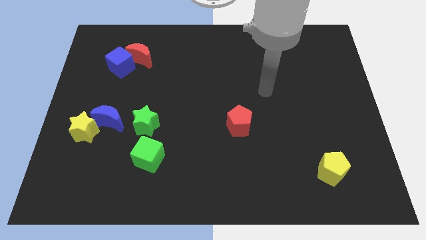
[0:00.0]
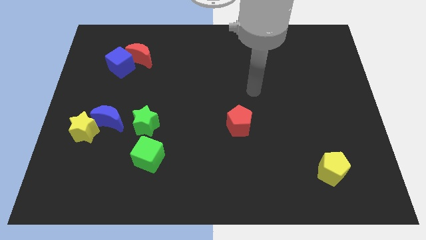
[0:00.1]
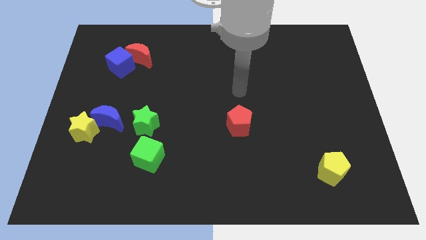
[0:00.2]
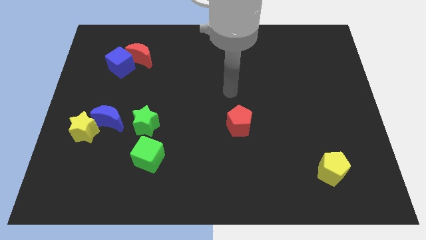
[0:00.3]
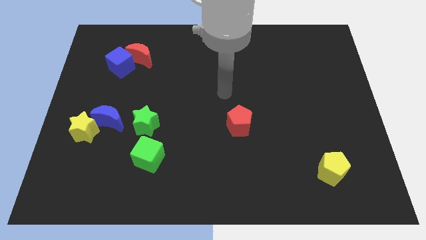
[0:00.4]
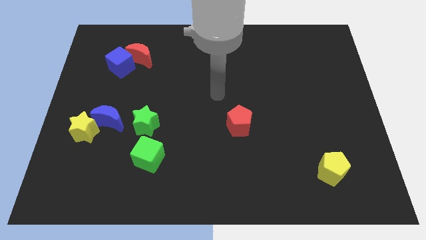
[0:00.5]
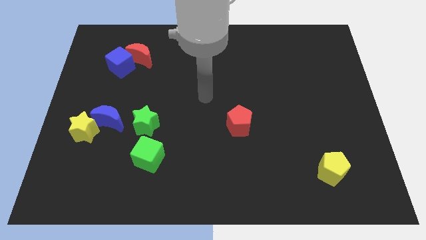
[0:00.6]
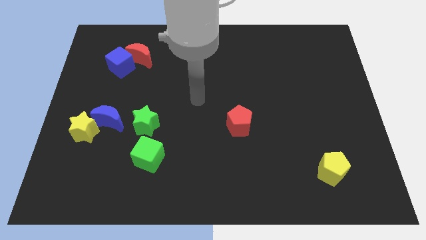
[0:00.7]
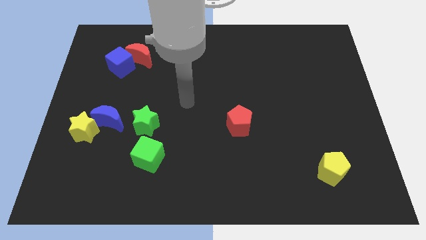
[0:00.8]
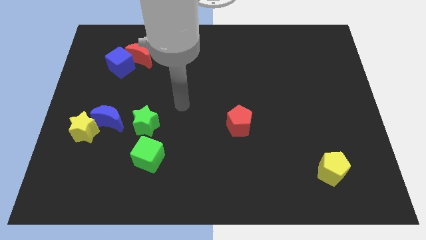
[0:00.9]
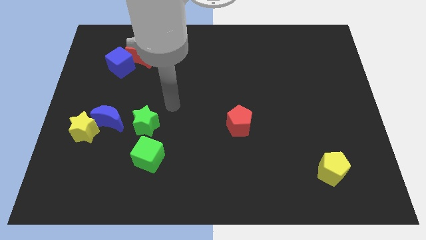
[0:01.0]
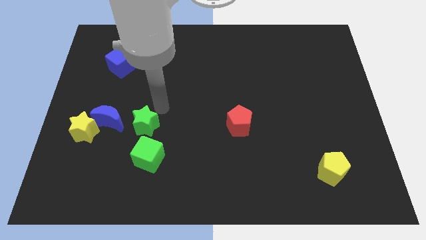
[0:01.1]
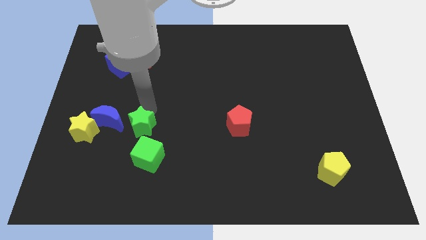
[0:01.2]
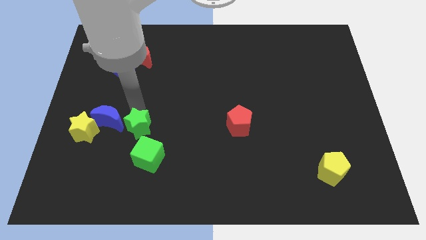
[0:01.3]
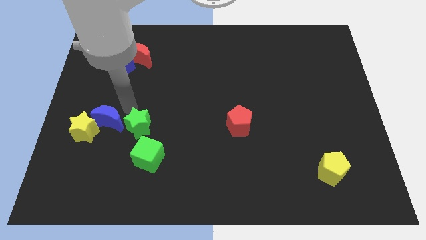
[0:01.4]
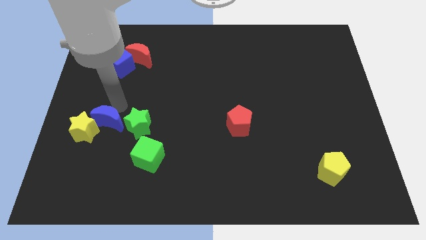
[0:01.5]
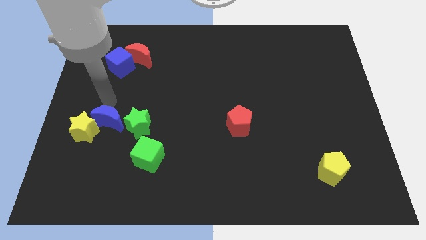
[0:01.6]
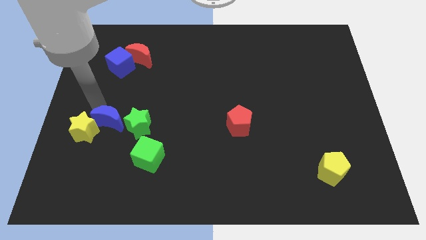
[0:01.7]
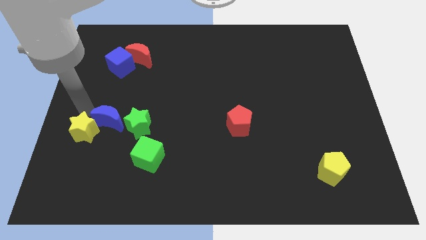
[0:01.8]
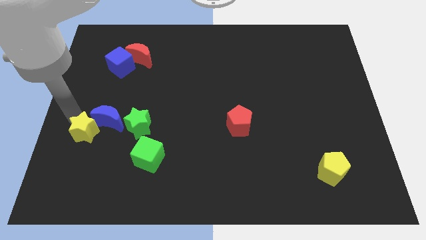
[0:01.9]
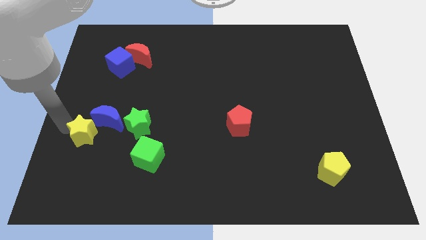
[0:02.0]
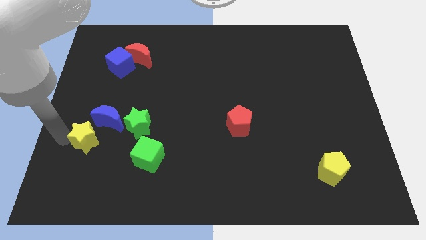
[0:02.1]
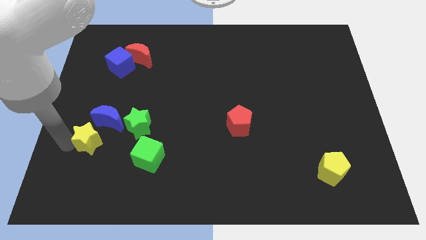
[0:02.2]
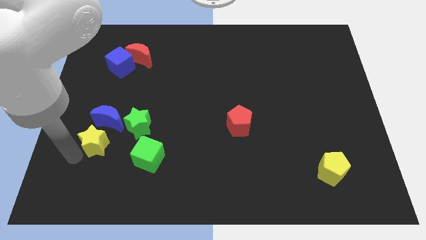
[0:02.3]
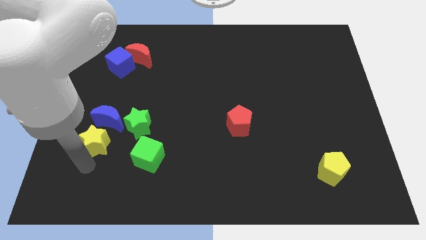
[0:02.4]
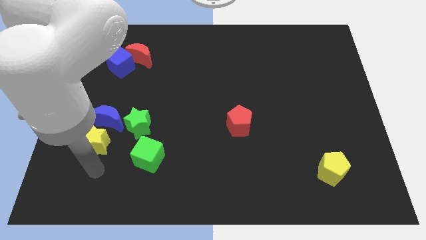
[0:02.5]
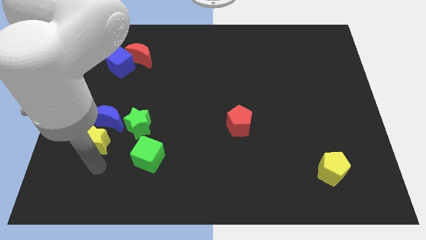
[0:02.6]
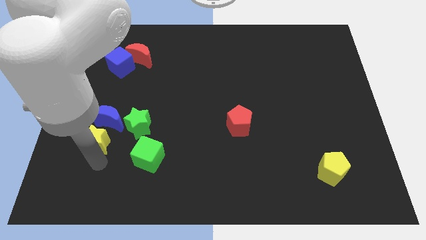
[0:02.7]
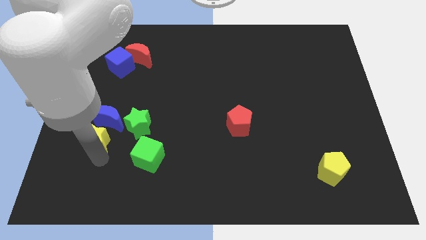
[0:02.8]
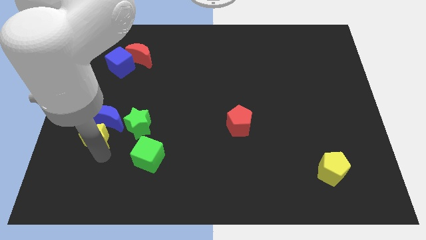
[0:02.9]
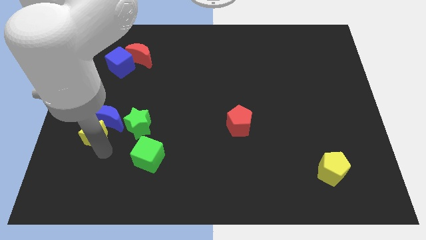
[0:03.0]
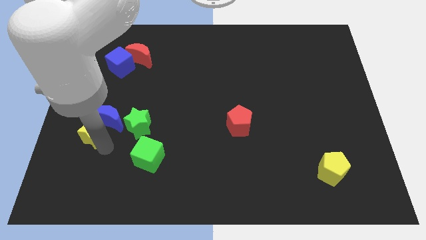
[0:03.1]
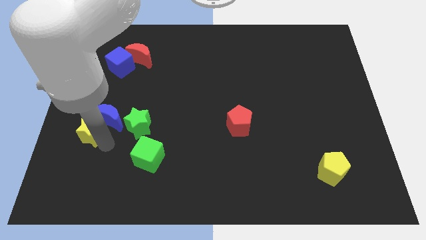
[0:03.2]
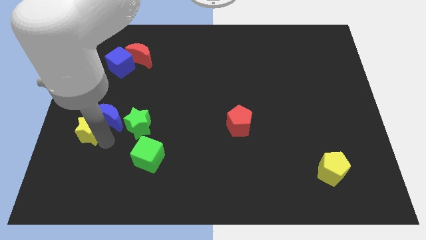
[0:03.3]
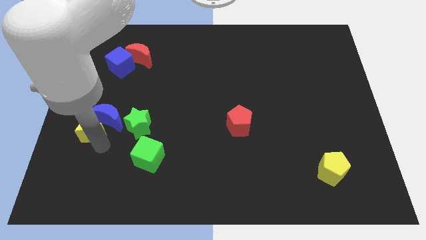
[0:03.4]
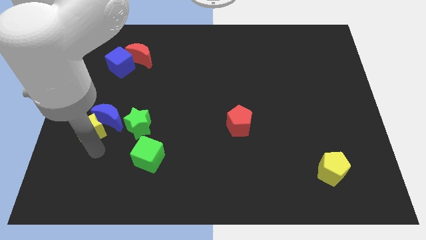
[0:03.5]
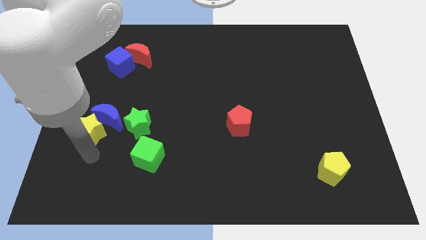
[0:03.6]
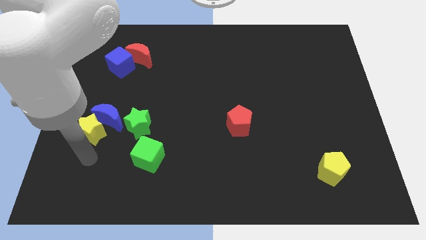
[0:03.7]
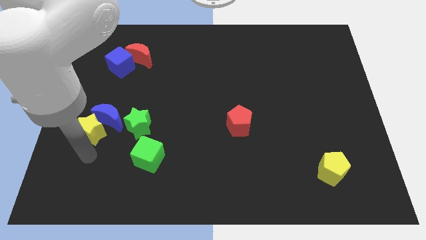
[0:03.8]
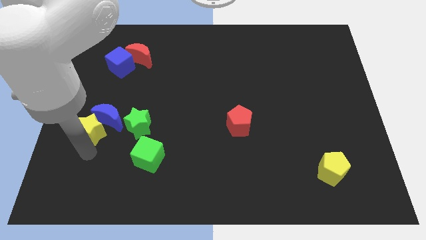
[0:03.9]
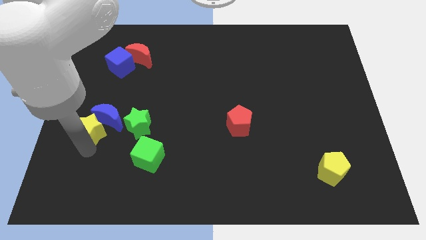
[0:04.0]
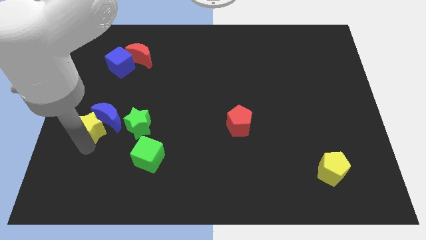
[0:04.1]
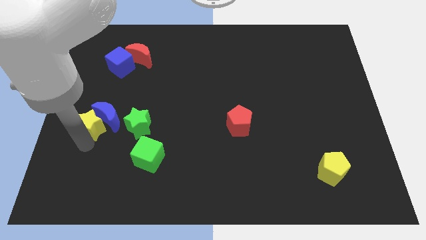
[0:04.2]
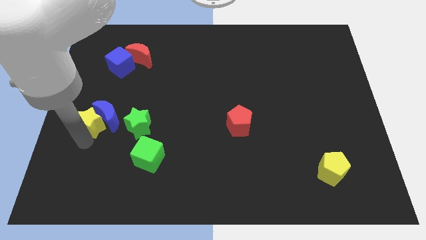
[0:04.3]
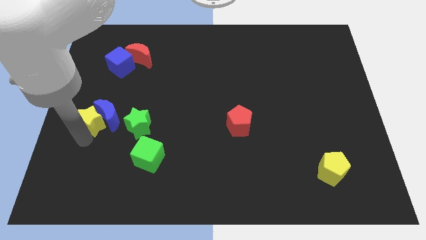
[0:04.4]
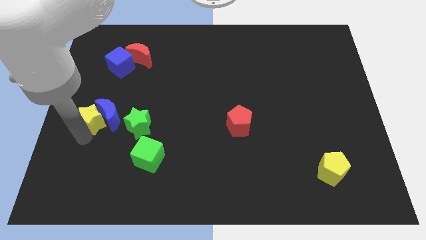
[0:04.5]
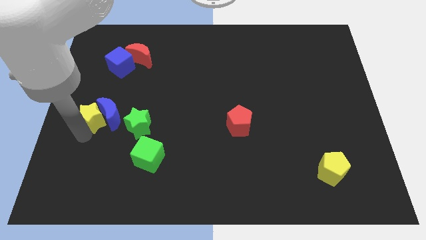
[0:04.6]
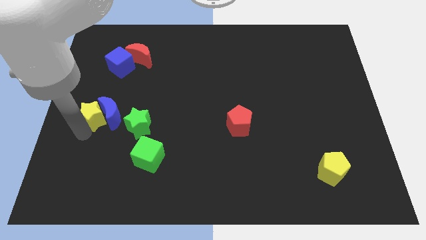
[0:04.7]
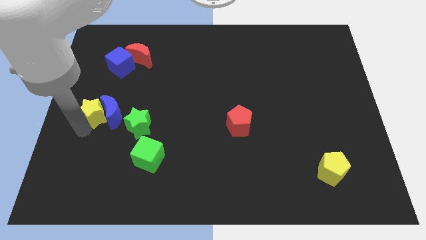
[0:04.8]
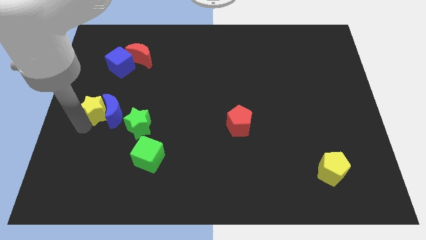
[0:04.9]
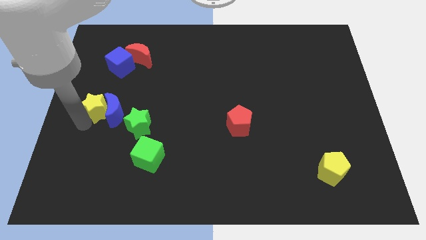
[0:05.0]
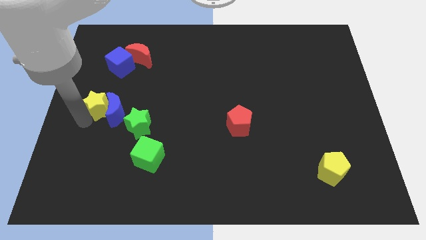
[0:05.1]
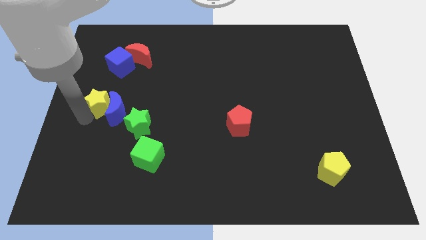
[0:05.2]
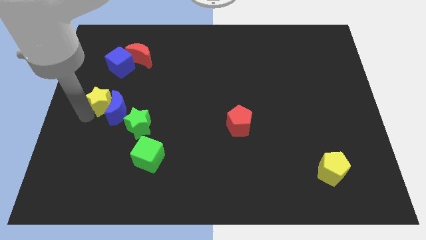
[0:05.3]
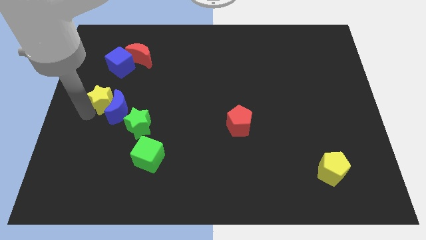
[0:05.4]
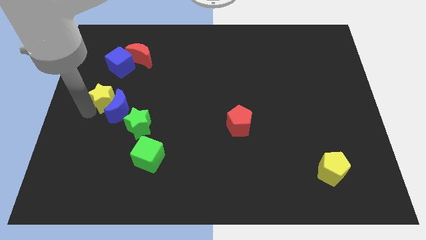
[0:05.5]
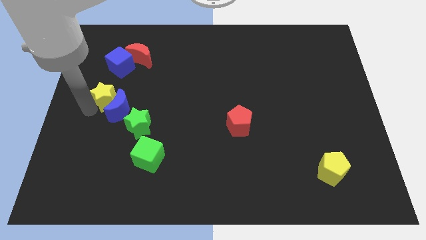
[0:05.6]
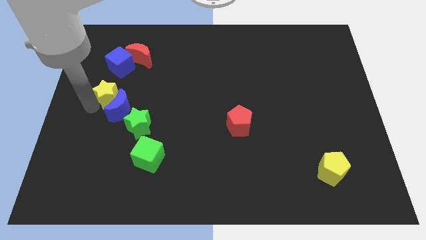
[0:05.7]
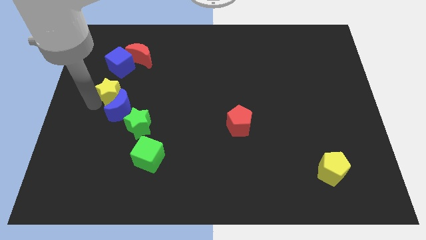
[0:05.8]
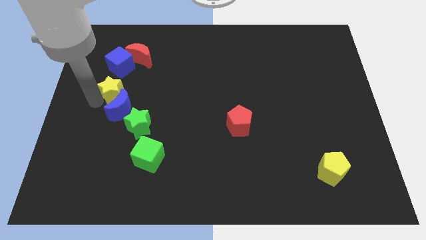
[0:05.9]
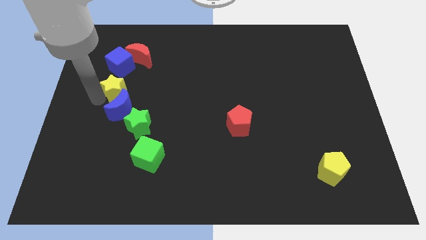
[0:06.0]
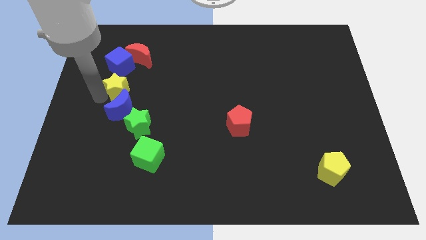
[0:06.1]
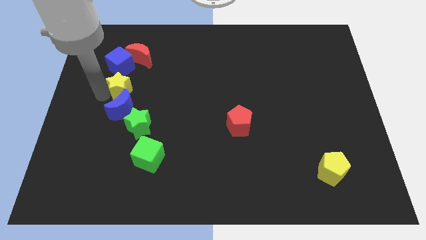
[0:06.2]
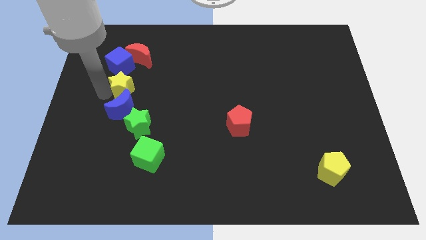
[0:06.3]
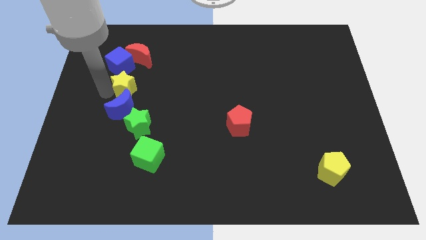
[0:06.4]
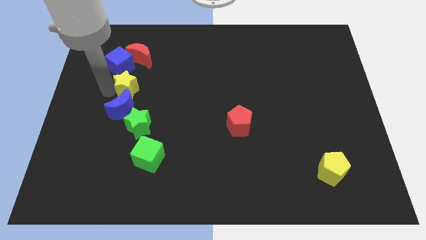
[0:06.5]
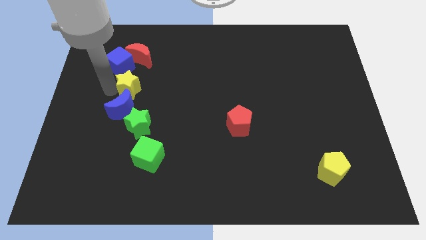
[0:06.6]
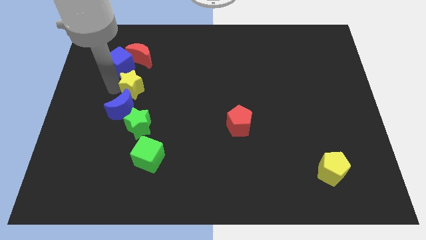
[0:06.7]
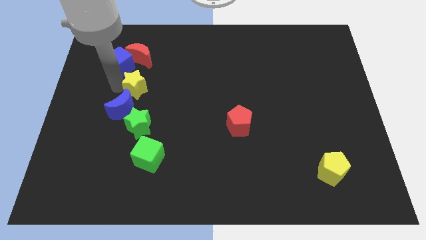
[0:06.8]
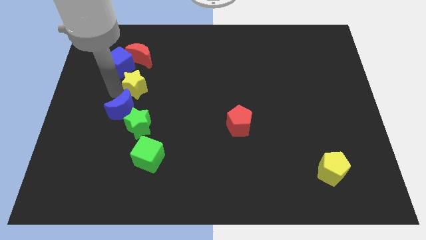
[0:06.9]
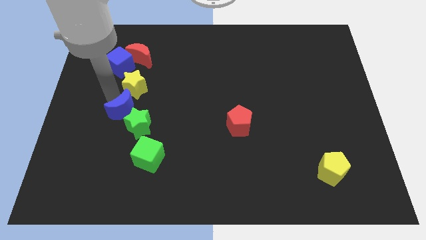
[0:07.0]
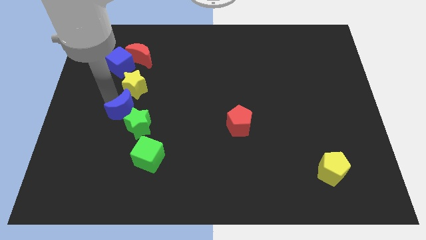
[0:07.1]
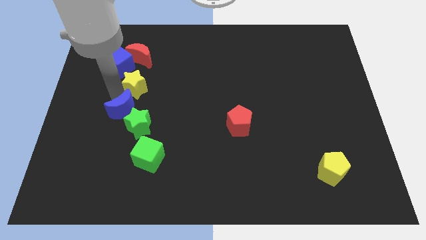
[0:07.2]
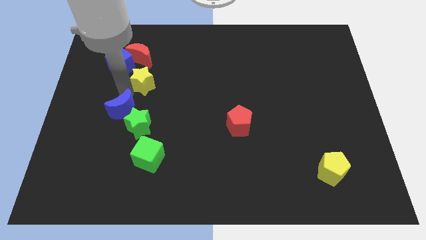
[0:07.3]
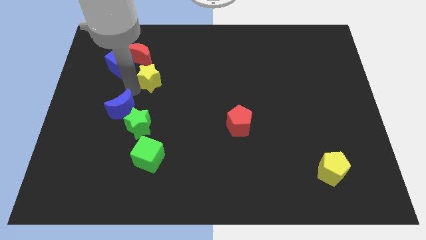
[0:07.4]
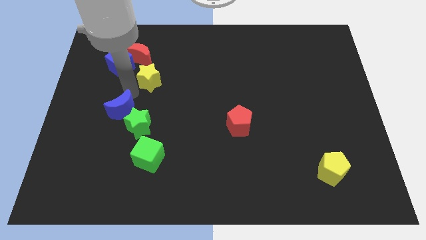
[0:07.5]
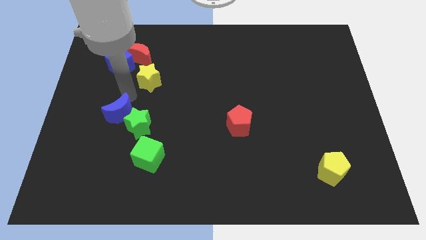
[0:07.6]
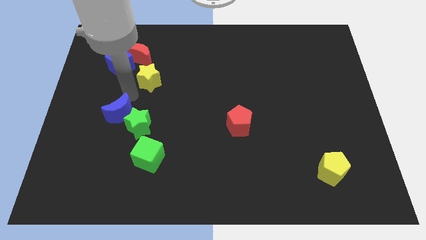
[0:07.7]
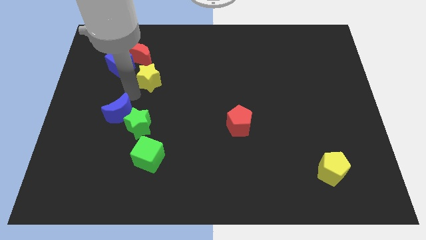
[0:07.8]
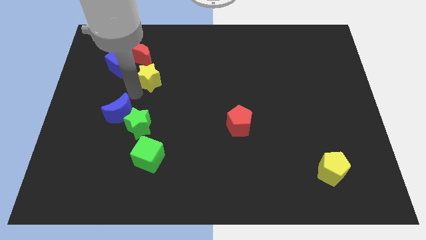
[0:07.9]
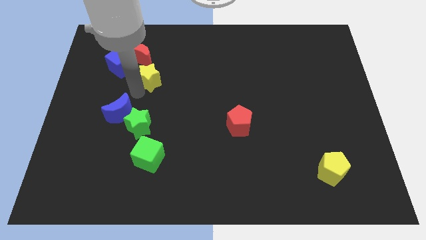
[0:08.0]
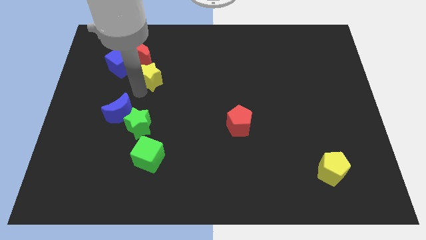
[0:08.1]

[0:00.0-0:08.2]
push the yellow star upwards and right
